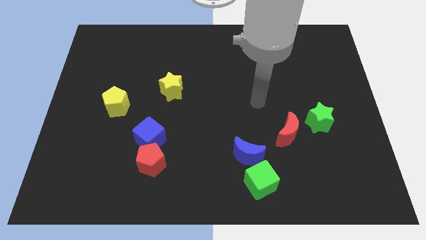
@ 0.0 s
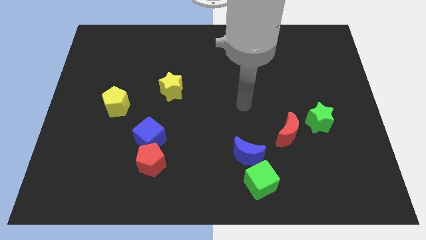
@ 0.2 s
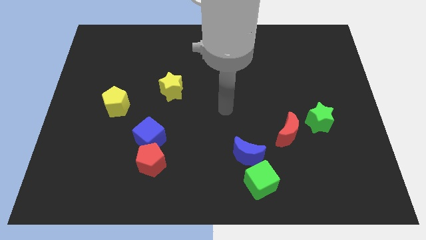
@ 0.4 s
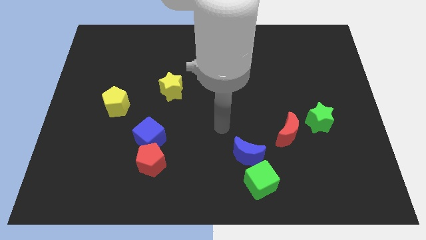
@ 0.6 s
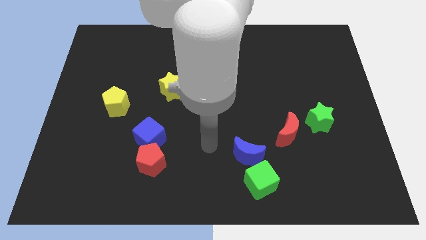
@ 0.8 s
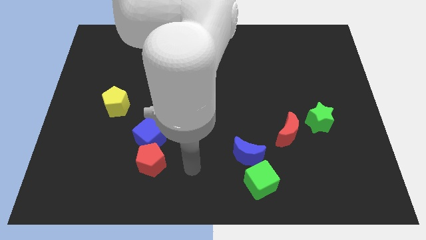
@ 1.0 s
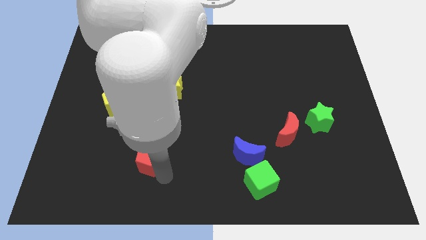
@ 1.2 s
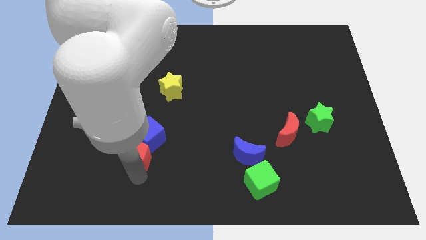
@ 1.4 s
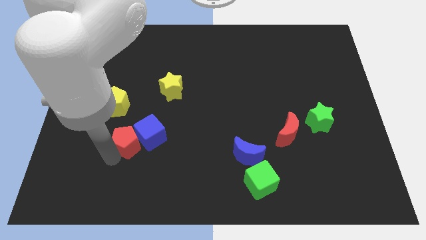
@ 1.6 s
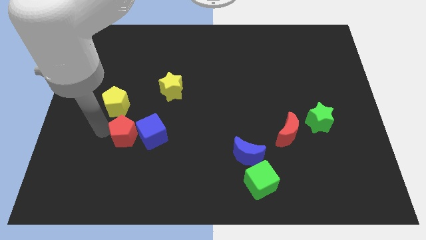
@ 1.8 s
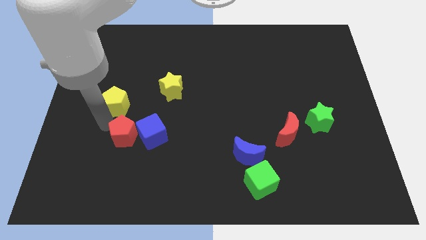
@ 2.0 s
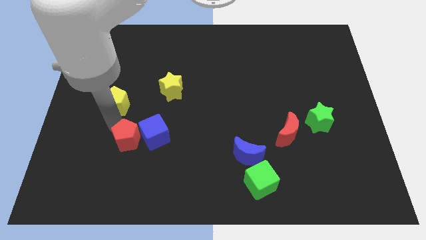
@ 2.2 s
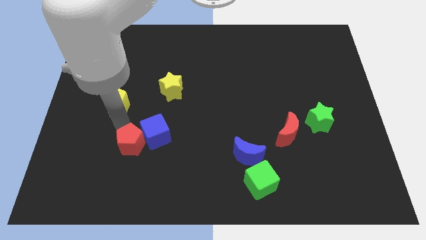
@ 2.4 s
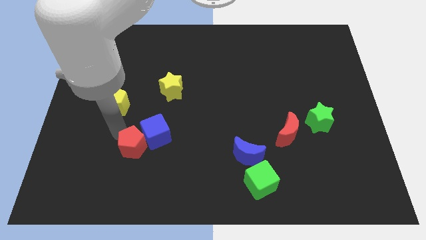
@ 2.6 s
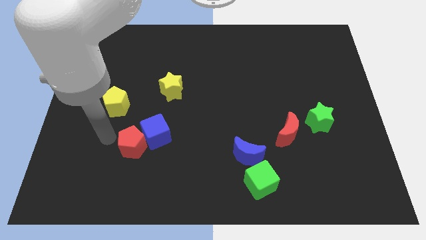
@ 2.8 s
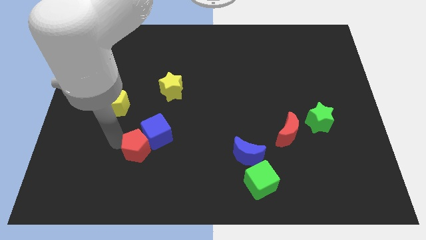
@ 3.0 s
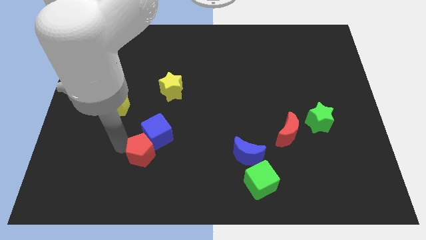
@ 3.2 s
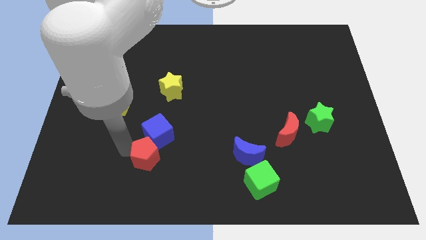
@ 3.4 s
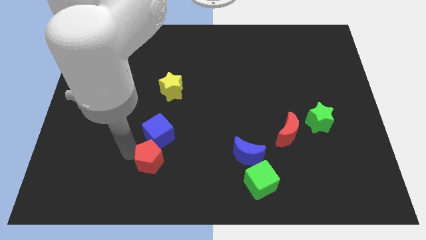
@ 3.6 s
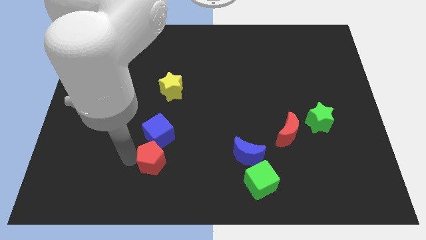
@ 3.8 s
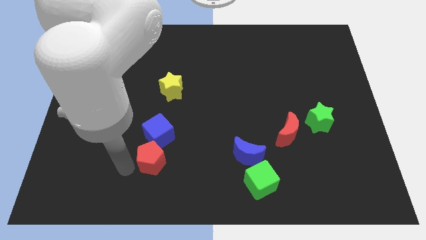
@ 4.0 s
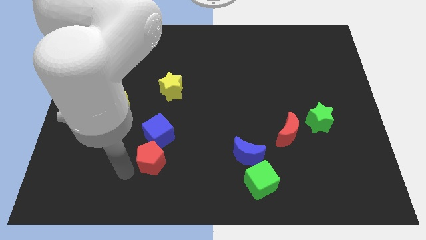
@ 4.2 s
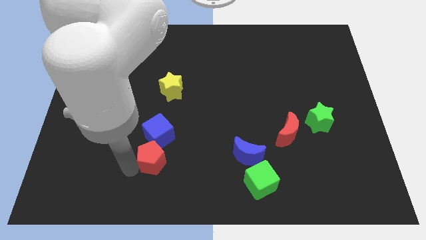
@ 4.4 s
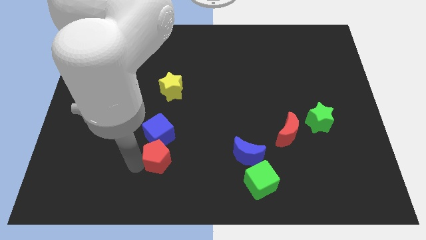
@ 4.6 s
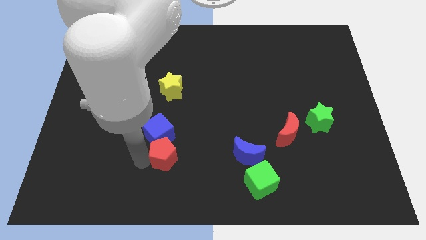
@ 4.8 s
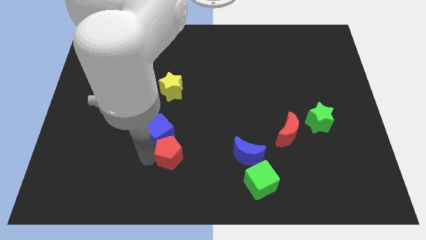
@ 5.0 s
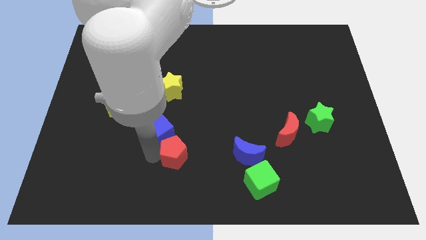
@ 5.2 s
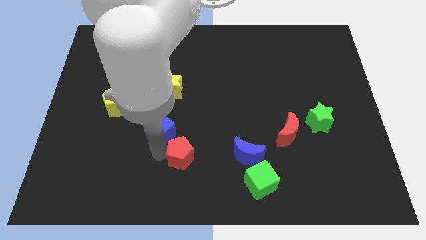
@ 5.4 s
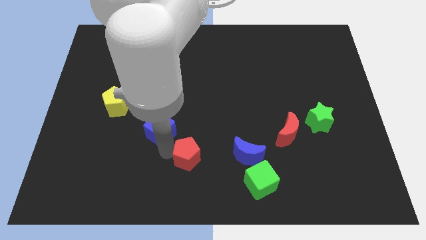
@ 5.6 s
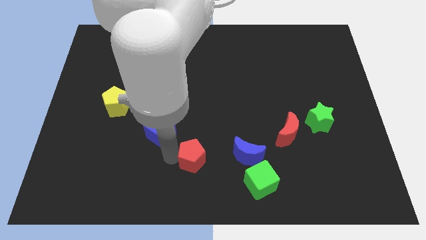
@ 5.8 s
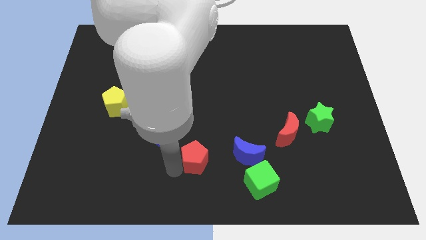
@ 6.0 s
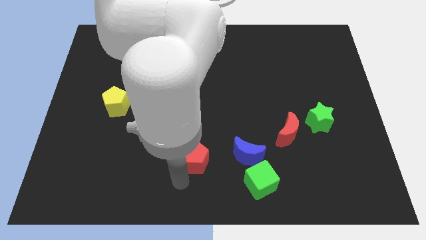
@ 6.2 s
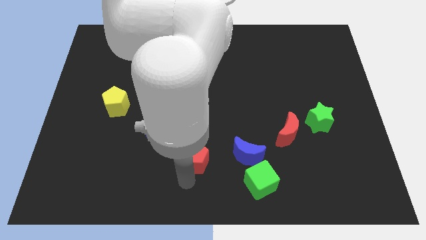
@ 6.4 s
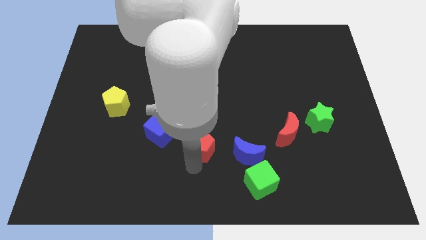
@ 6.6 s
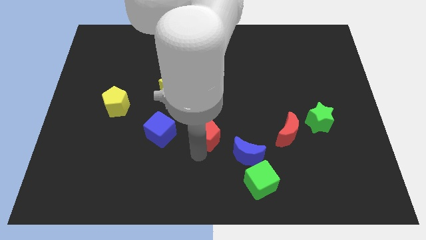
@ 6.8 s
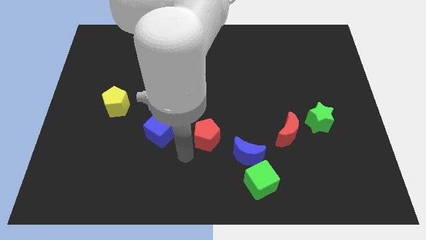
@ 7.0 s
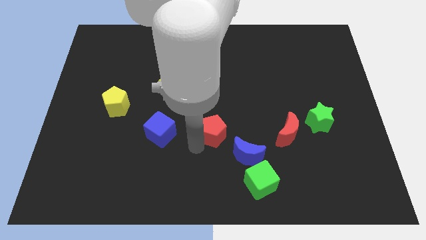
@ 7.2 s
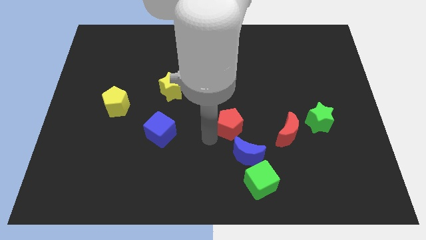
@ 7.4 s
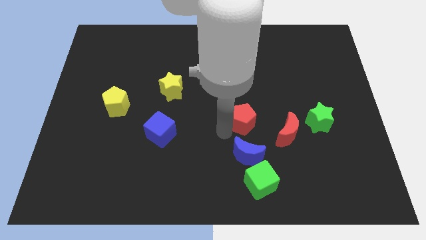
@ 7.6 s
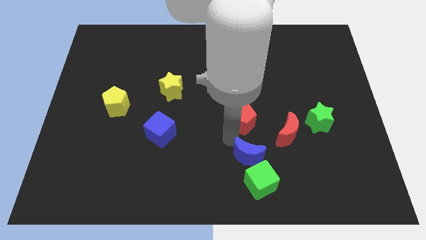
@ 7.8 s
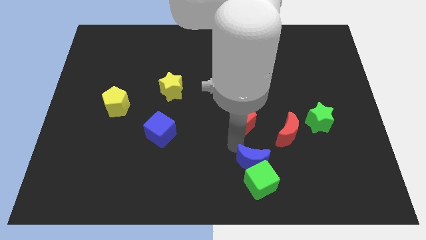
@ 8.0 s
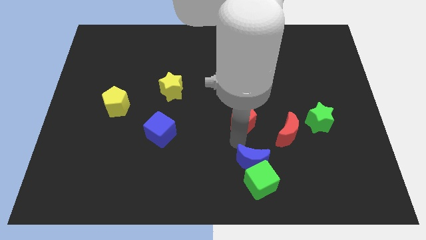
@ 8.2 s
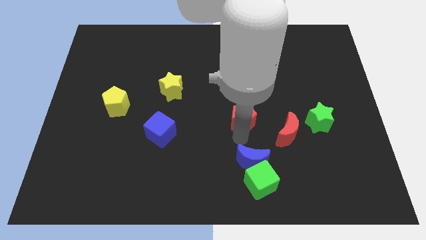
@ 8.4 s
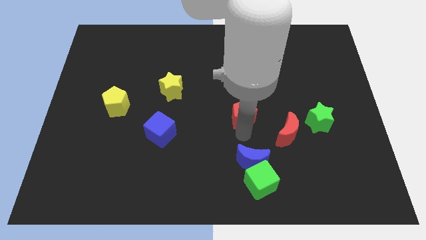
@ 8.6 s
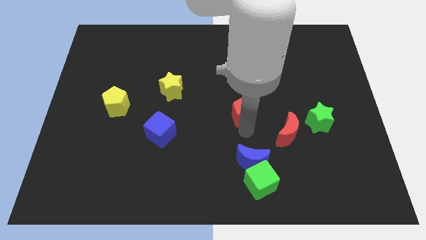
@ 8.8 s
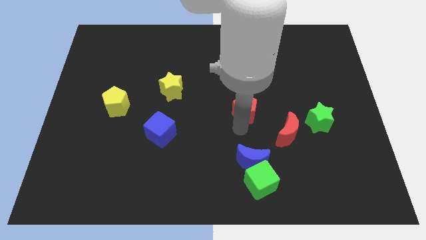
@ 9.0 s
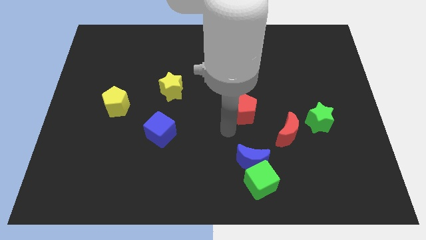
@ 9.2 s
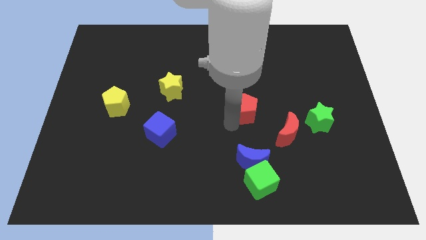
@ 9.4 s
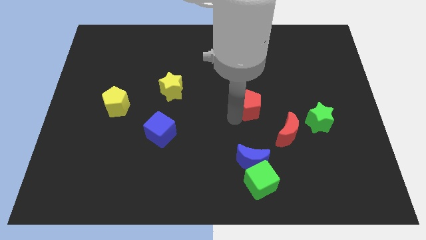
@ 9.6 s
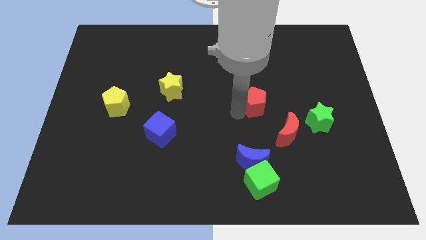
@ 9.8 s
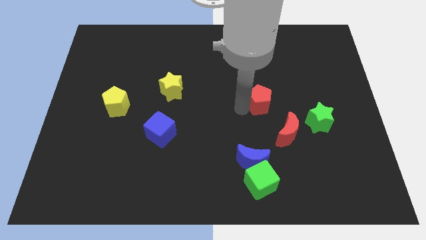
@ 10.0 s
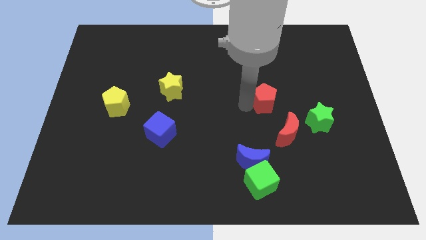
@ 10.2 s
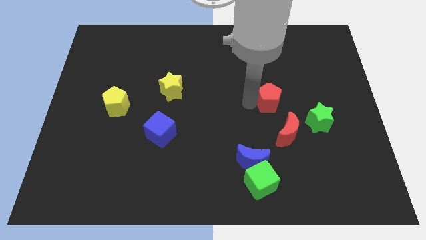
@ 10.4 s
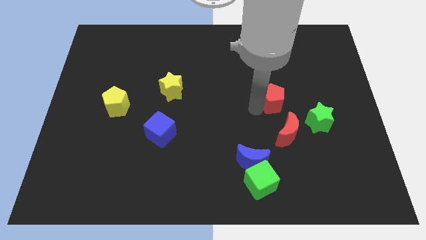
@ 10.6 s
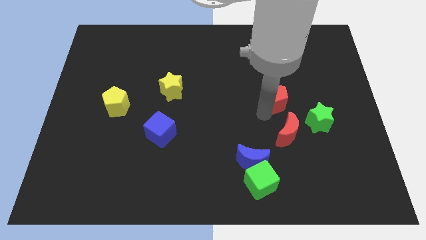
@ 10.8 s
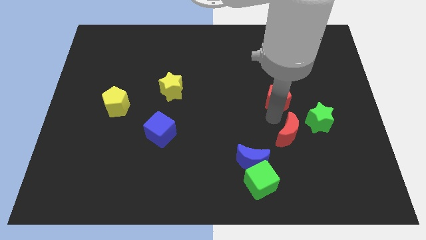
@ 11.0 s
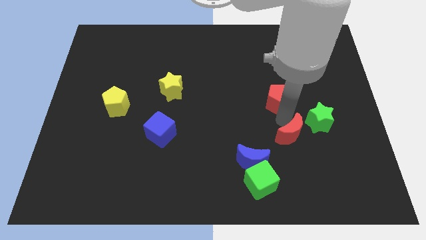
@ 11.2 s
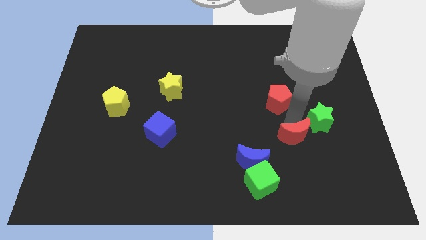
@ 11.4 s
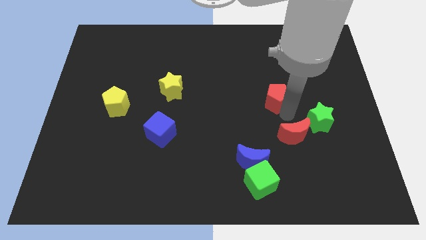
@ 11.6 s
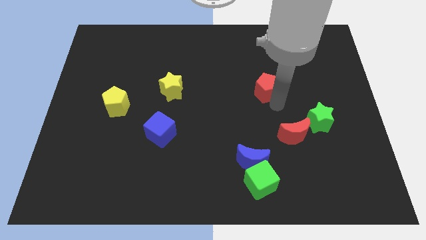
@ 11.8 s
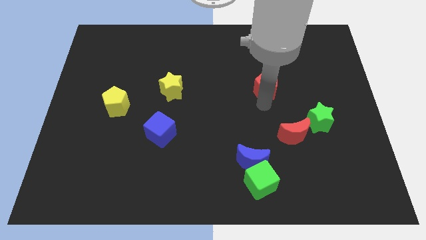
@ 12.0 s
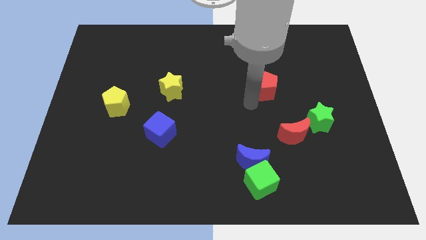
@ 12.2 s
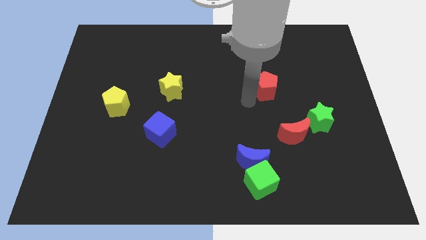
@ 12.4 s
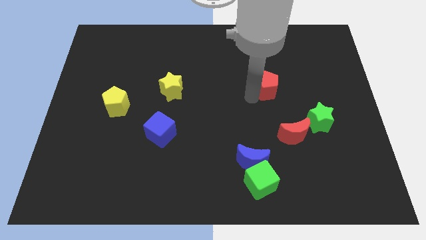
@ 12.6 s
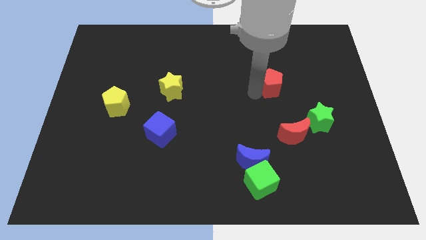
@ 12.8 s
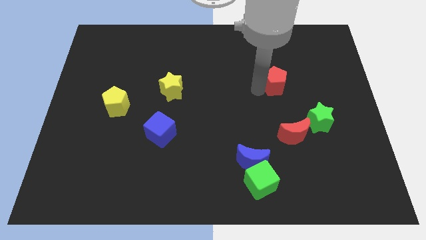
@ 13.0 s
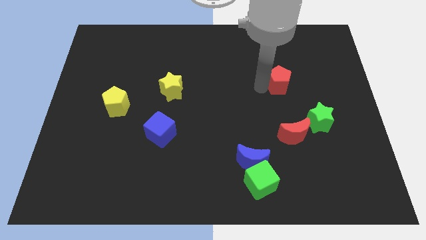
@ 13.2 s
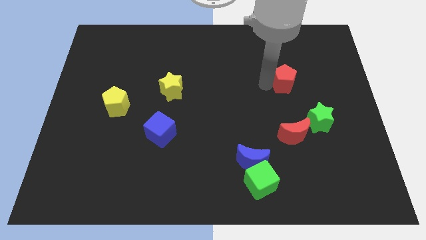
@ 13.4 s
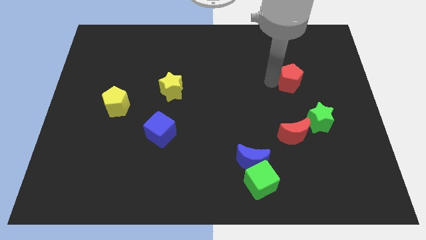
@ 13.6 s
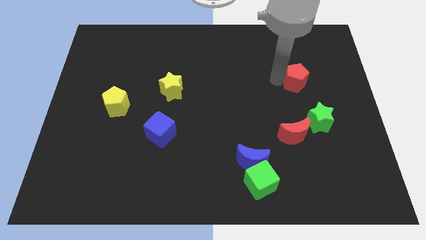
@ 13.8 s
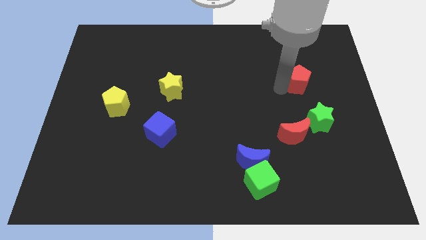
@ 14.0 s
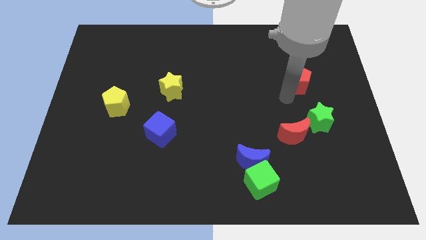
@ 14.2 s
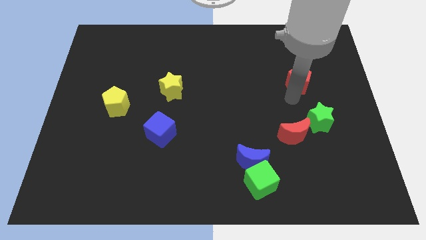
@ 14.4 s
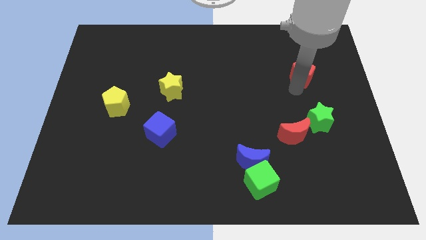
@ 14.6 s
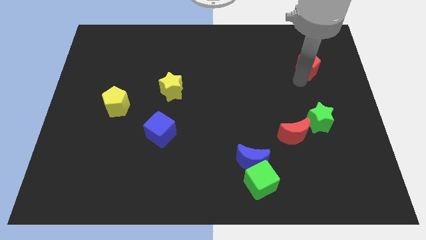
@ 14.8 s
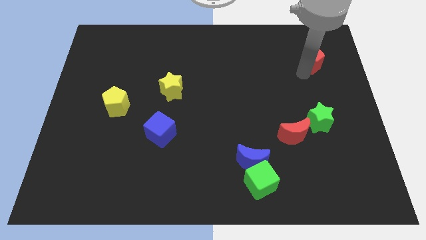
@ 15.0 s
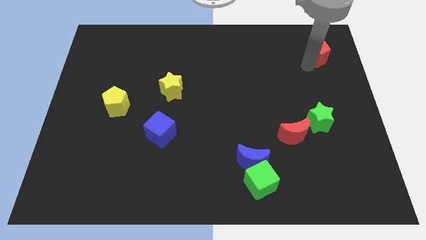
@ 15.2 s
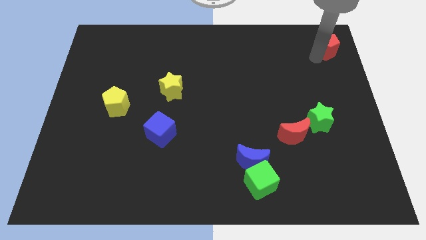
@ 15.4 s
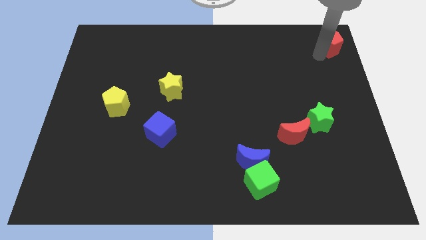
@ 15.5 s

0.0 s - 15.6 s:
move the red pentagon to the top right
